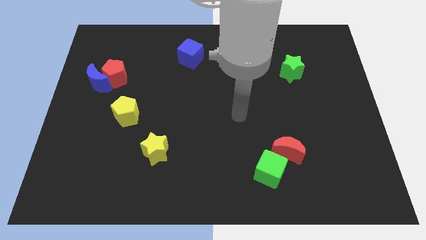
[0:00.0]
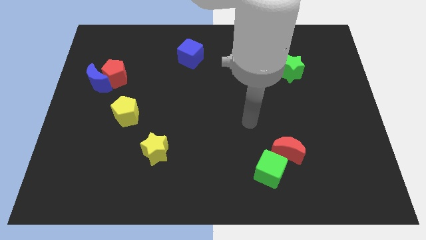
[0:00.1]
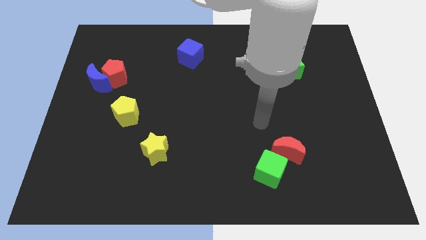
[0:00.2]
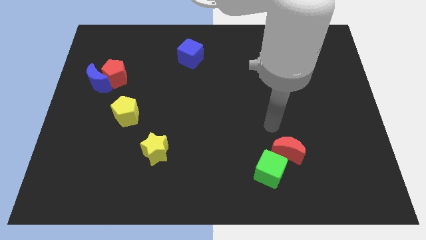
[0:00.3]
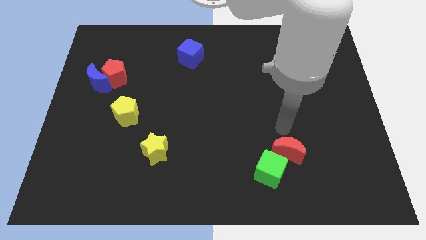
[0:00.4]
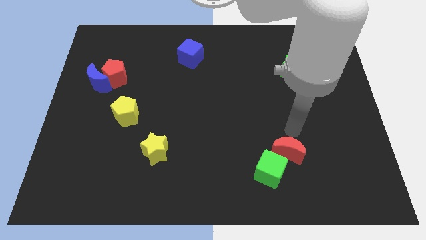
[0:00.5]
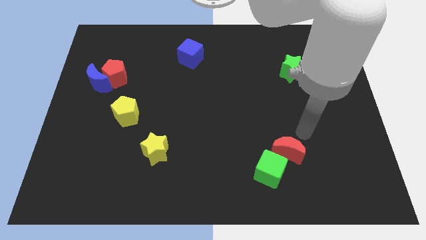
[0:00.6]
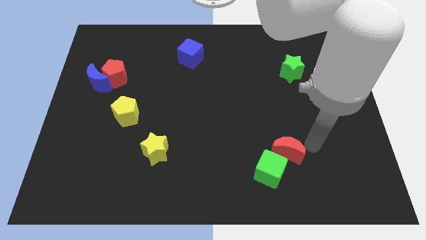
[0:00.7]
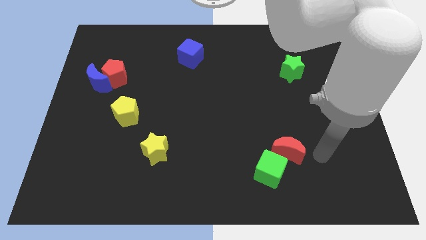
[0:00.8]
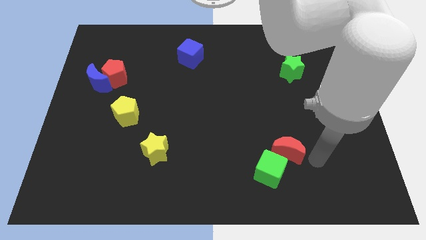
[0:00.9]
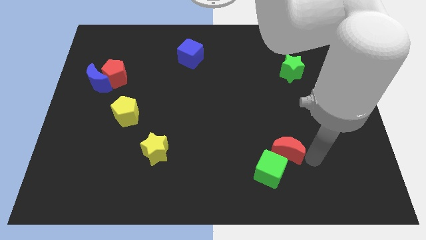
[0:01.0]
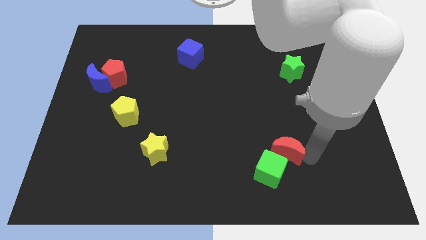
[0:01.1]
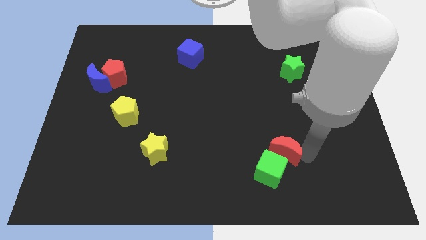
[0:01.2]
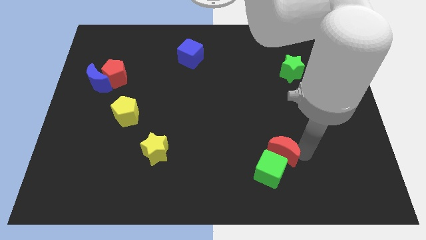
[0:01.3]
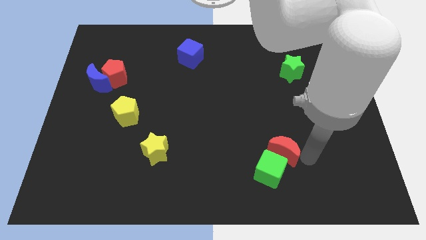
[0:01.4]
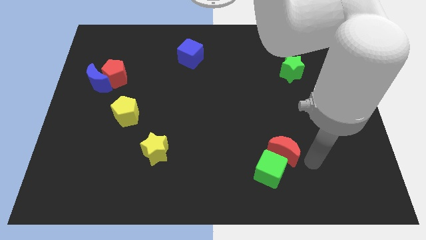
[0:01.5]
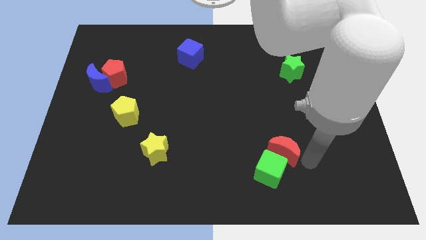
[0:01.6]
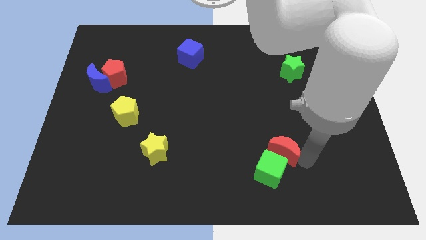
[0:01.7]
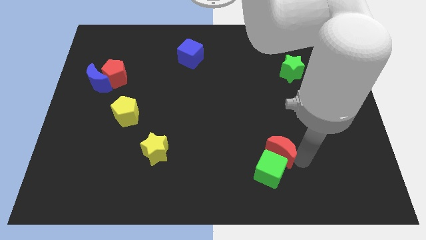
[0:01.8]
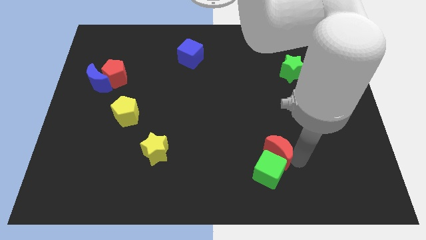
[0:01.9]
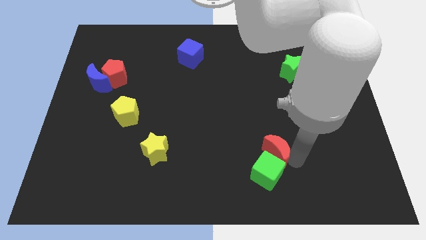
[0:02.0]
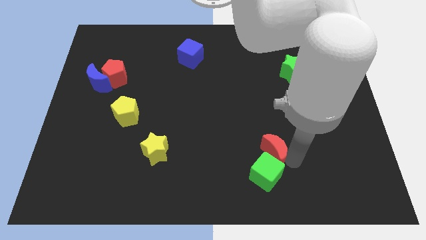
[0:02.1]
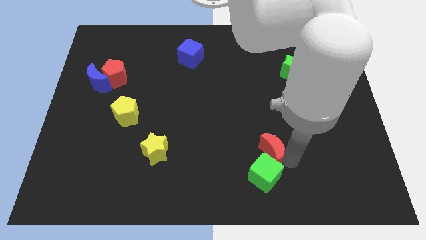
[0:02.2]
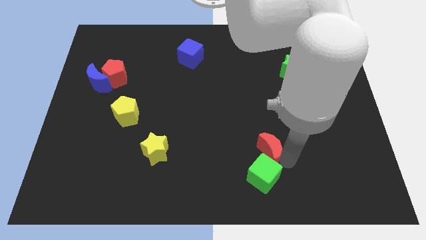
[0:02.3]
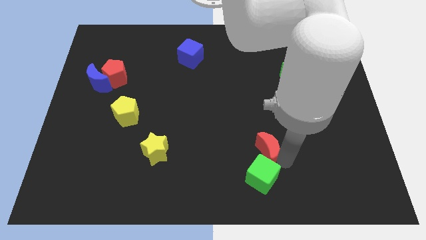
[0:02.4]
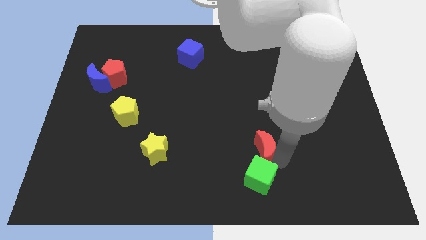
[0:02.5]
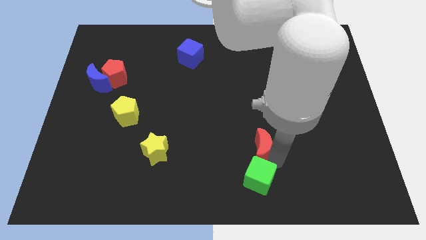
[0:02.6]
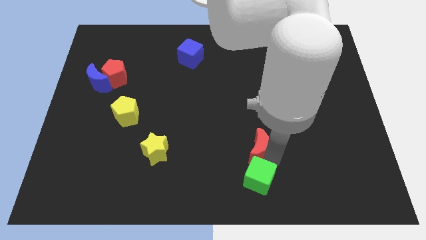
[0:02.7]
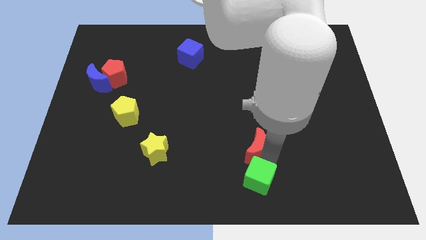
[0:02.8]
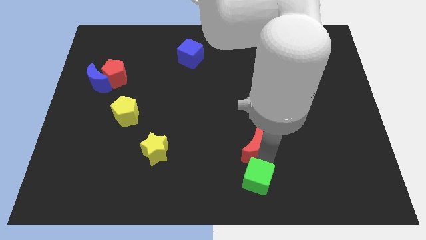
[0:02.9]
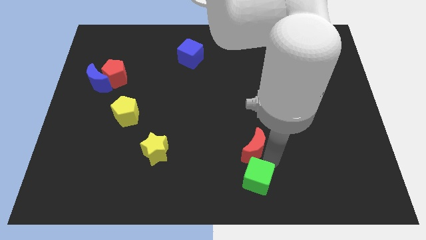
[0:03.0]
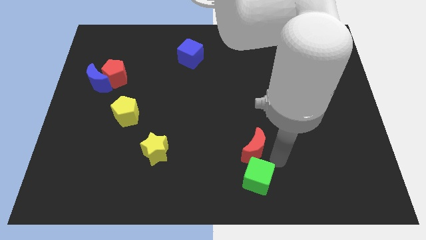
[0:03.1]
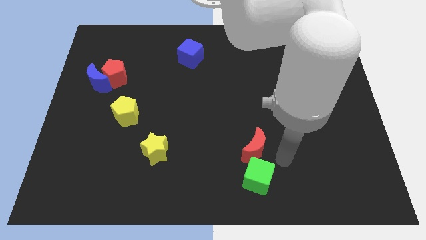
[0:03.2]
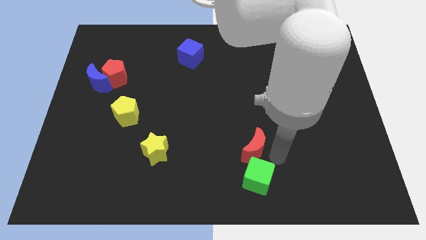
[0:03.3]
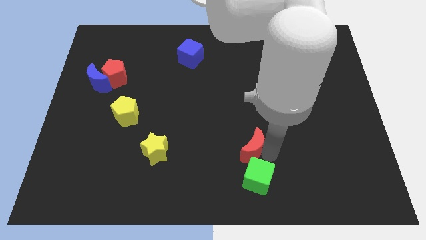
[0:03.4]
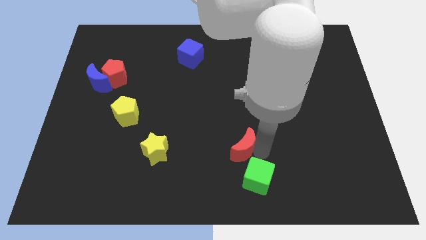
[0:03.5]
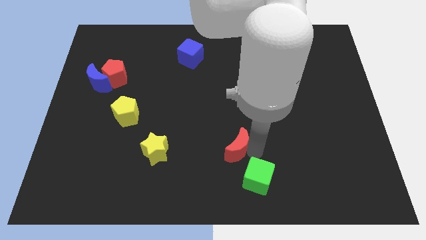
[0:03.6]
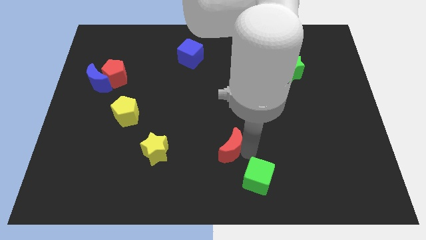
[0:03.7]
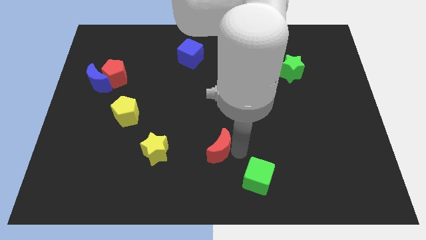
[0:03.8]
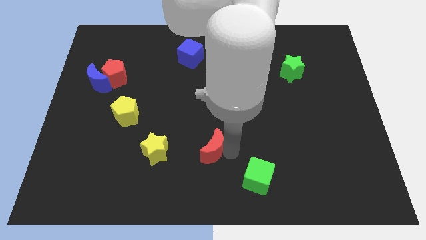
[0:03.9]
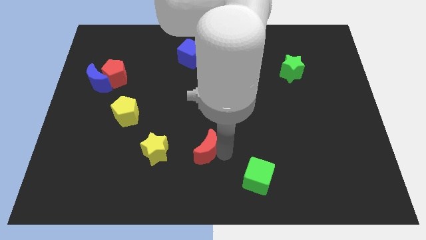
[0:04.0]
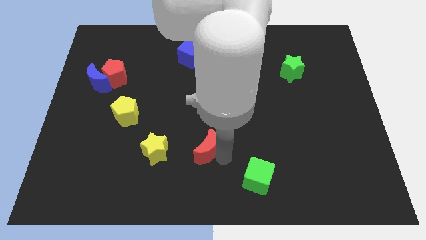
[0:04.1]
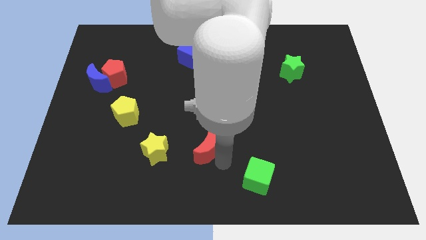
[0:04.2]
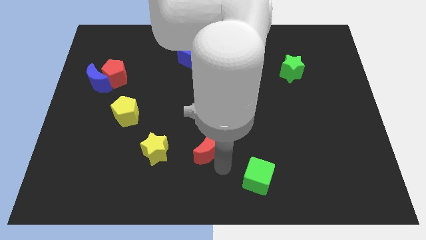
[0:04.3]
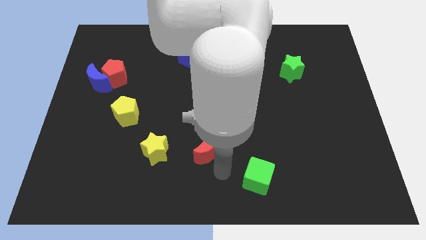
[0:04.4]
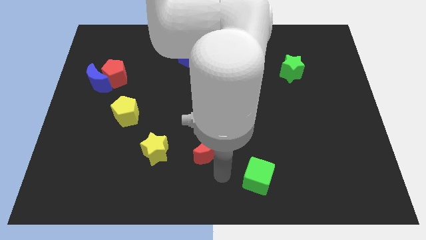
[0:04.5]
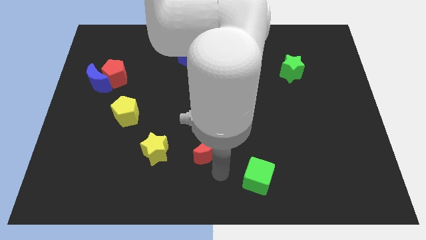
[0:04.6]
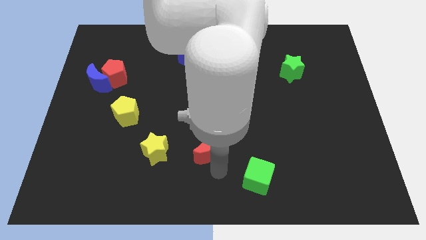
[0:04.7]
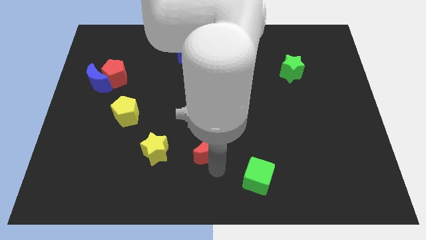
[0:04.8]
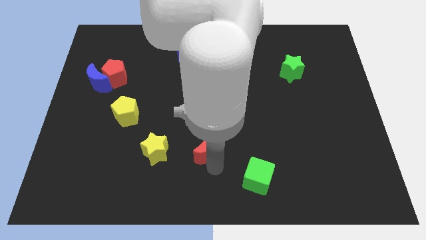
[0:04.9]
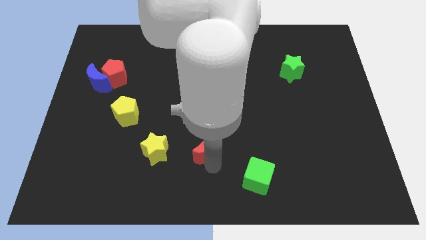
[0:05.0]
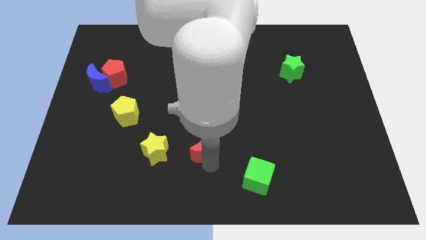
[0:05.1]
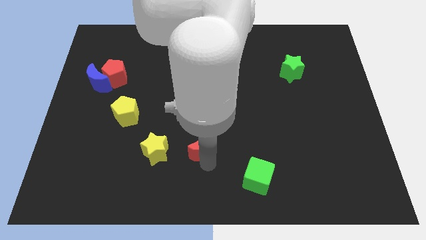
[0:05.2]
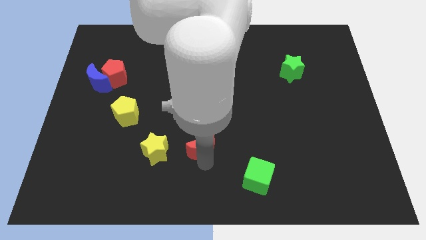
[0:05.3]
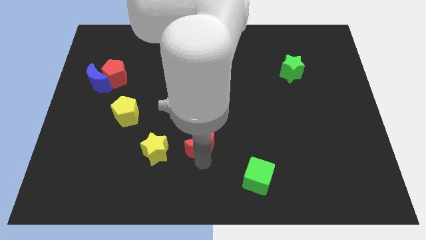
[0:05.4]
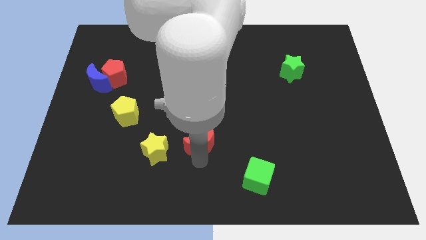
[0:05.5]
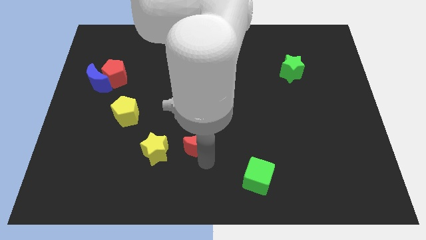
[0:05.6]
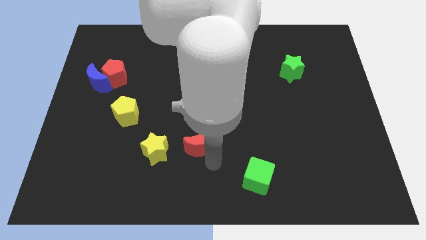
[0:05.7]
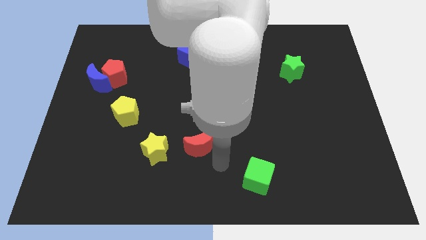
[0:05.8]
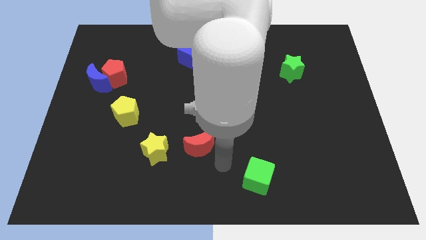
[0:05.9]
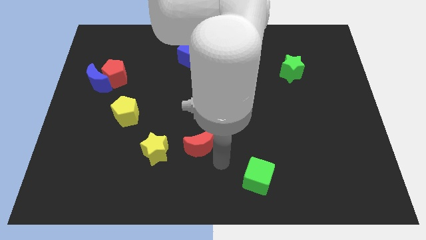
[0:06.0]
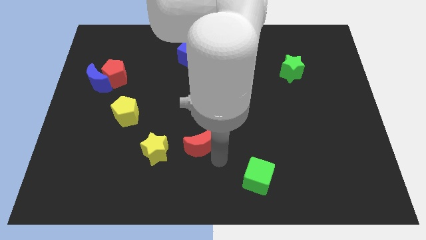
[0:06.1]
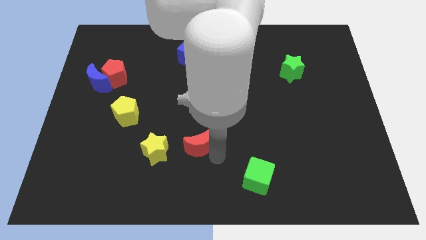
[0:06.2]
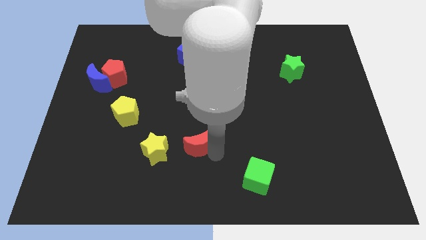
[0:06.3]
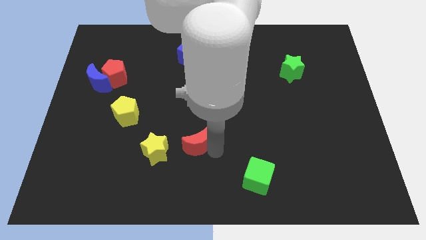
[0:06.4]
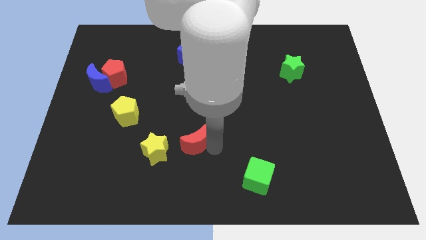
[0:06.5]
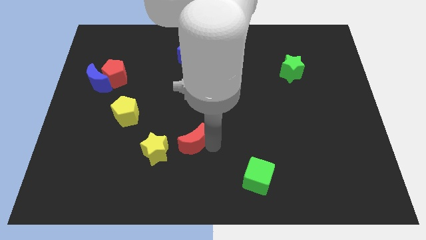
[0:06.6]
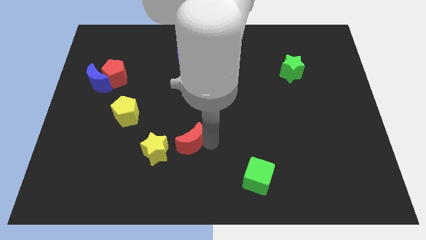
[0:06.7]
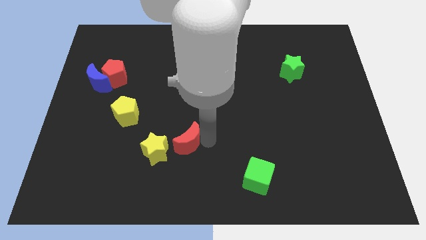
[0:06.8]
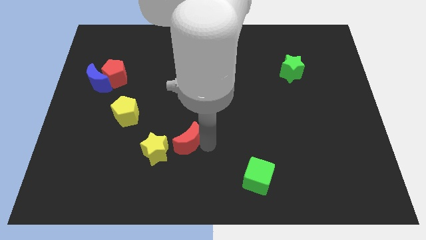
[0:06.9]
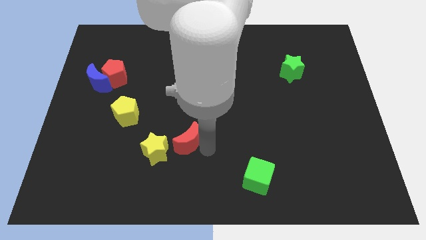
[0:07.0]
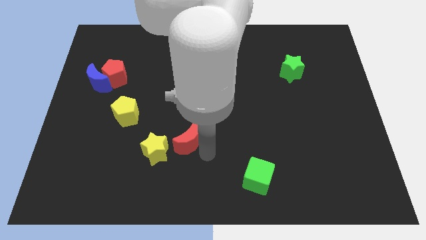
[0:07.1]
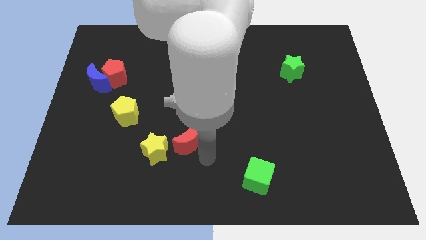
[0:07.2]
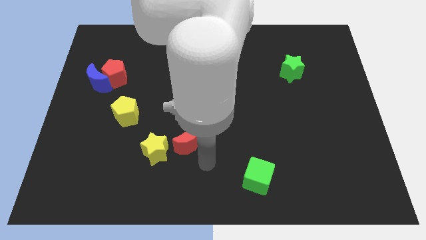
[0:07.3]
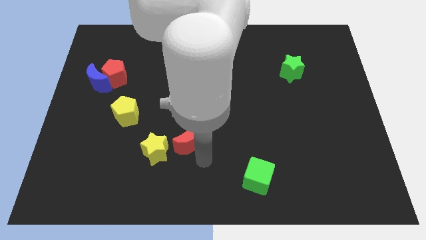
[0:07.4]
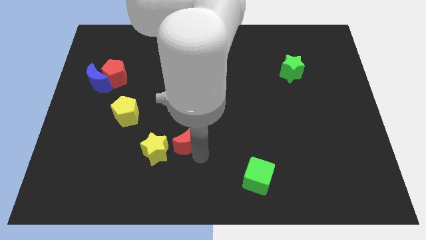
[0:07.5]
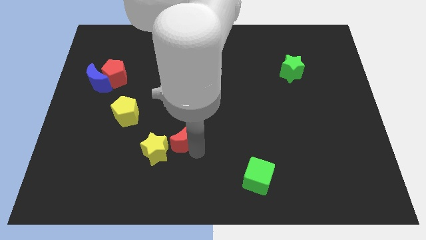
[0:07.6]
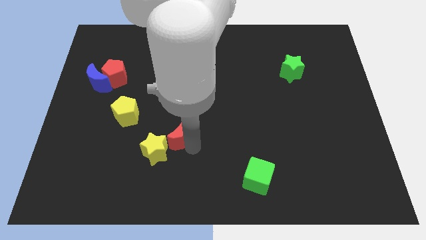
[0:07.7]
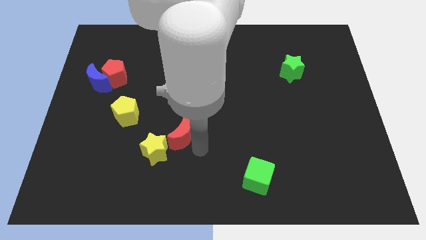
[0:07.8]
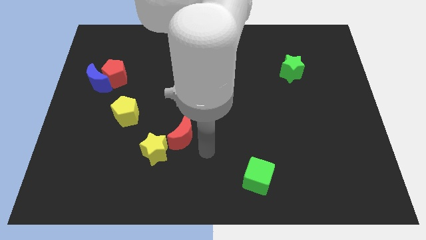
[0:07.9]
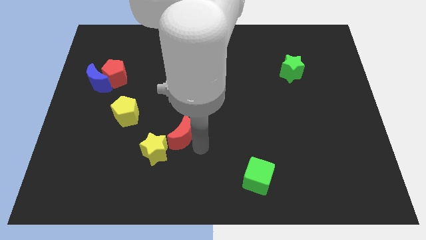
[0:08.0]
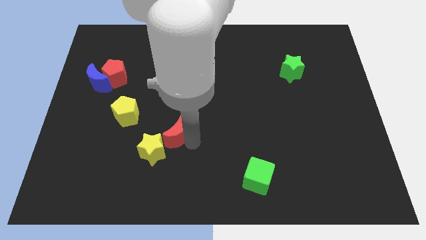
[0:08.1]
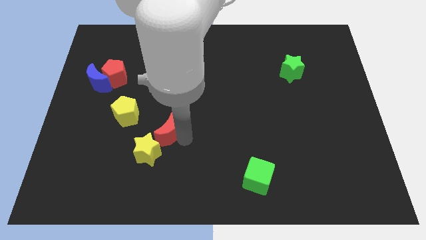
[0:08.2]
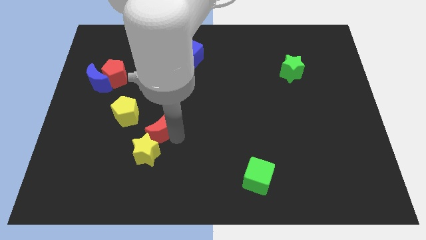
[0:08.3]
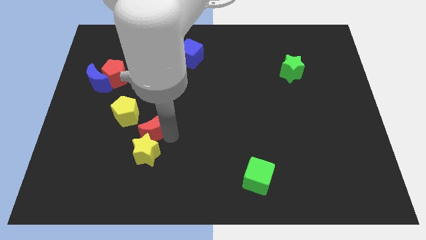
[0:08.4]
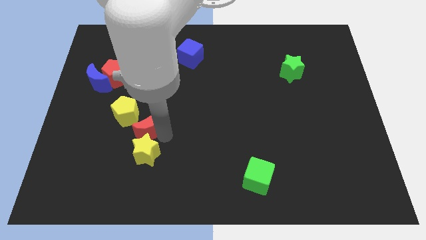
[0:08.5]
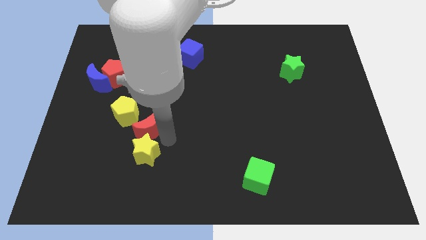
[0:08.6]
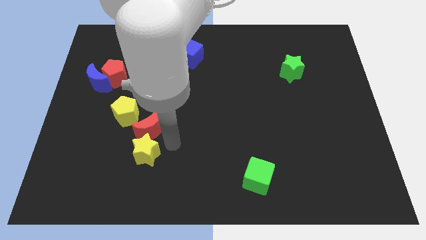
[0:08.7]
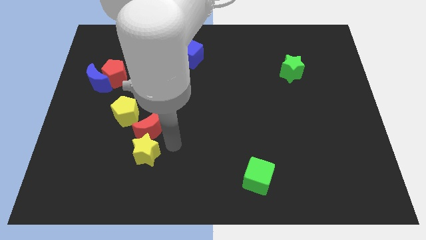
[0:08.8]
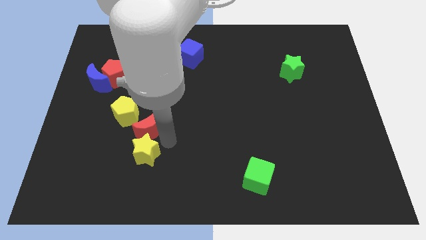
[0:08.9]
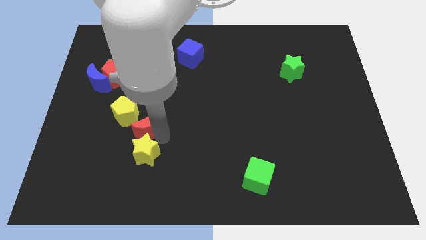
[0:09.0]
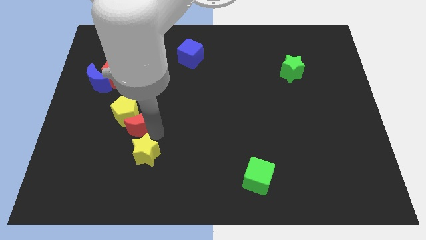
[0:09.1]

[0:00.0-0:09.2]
put the red moon towards the yellow pentagon
